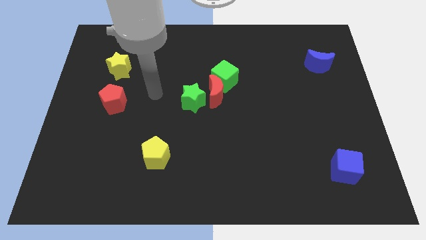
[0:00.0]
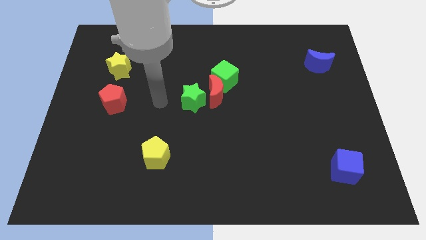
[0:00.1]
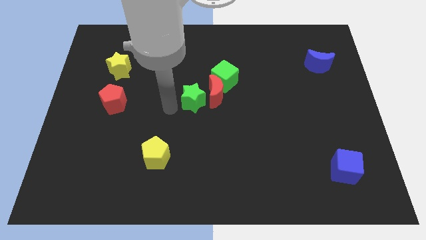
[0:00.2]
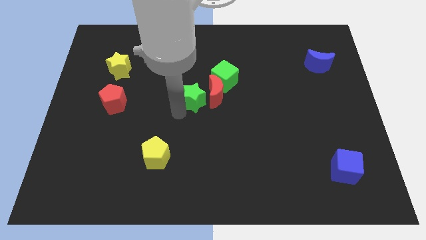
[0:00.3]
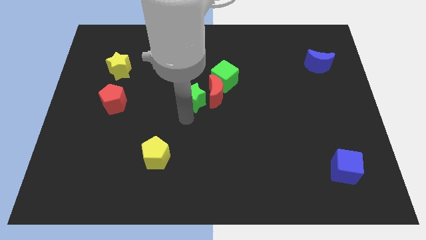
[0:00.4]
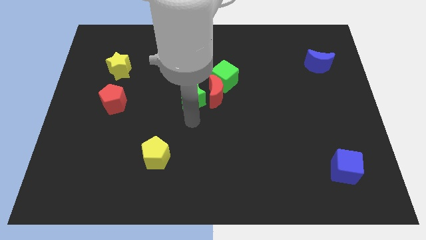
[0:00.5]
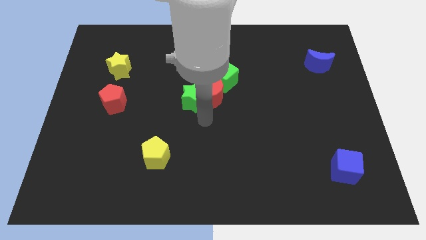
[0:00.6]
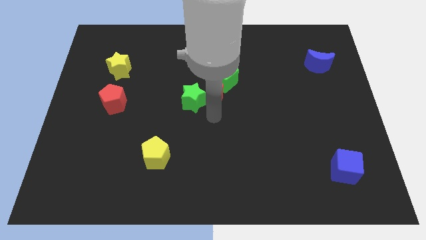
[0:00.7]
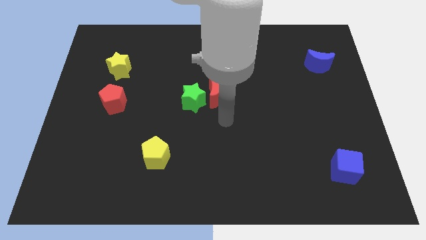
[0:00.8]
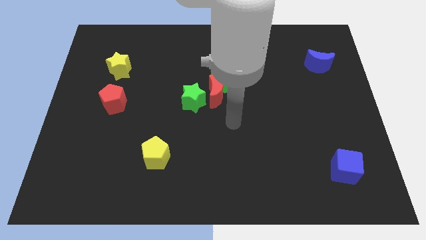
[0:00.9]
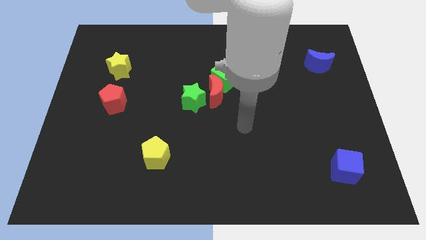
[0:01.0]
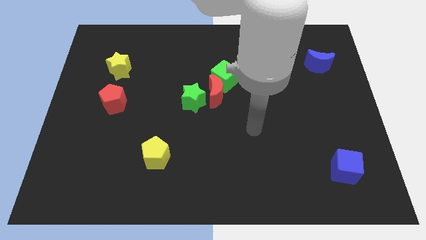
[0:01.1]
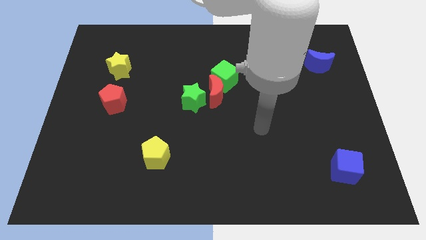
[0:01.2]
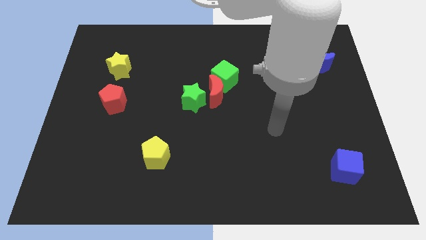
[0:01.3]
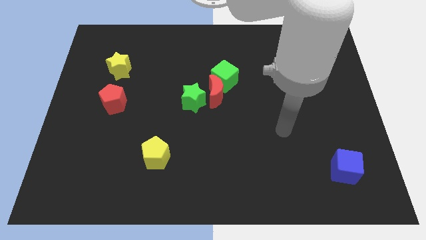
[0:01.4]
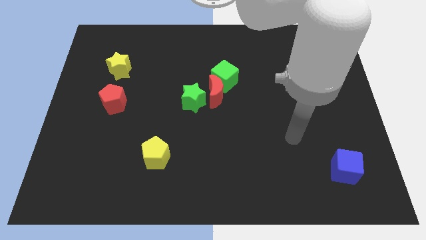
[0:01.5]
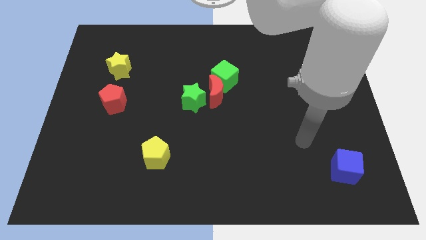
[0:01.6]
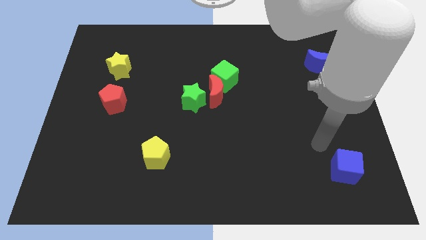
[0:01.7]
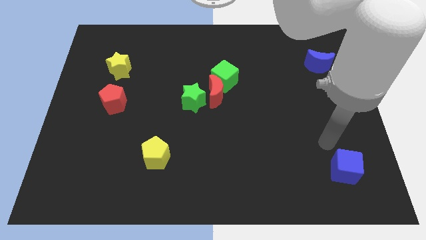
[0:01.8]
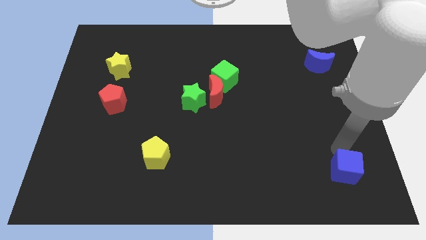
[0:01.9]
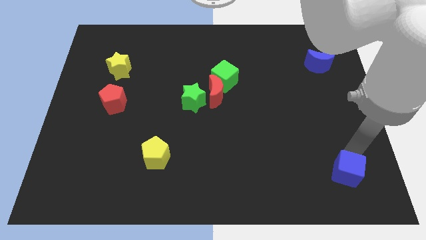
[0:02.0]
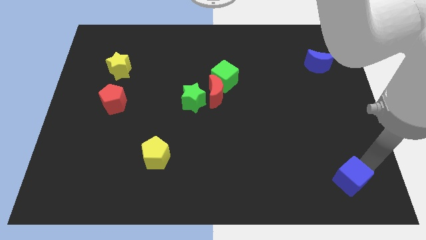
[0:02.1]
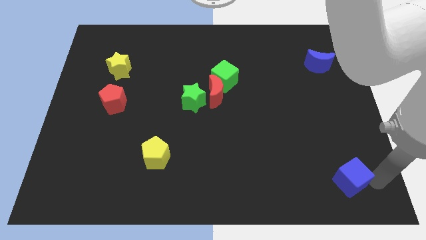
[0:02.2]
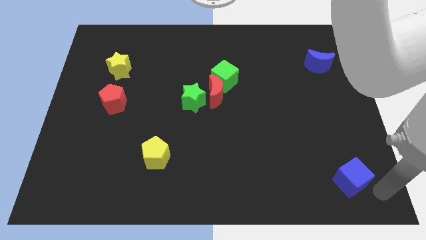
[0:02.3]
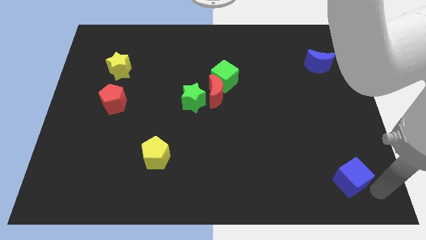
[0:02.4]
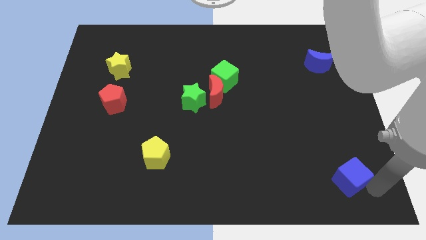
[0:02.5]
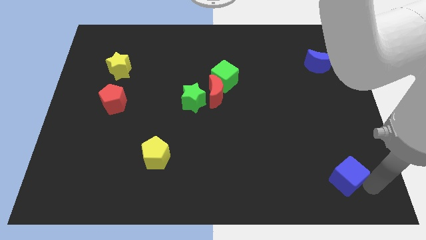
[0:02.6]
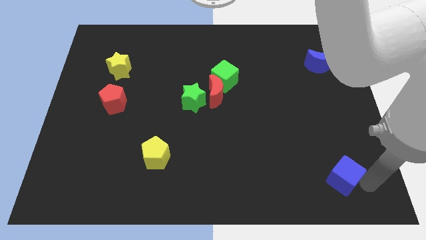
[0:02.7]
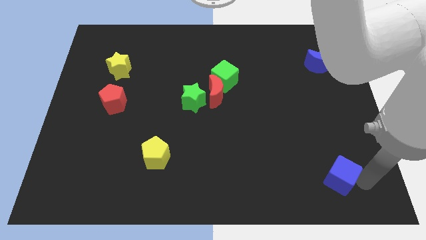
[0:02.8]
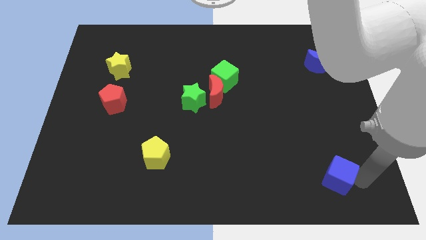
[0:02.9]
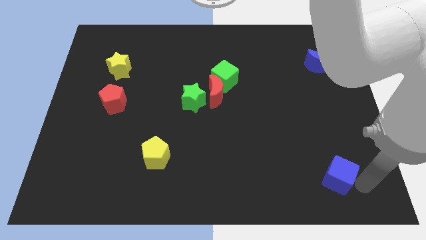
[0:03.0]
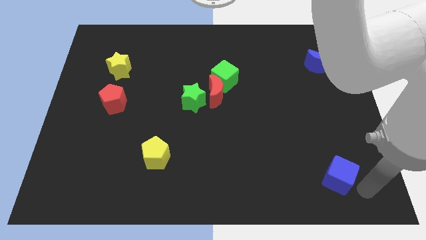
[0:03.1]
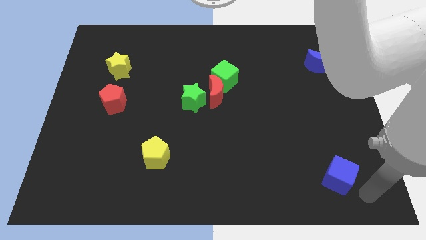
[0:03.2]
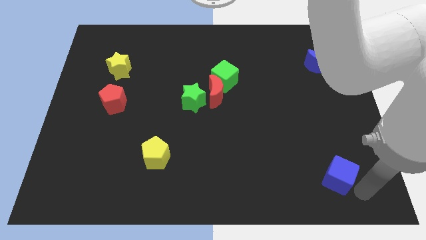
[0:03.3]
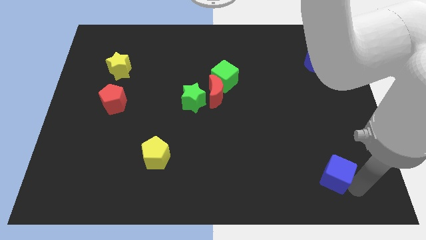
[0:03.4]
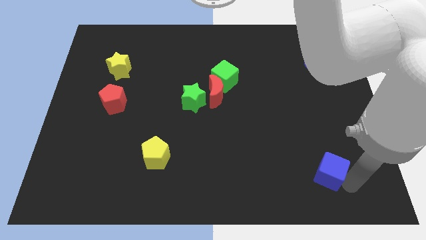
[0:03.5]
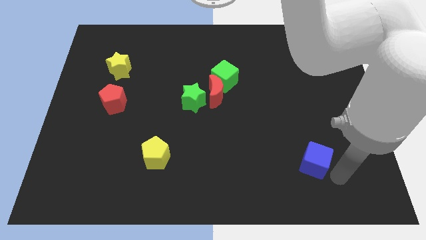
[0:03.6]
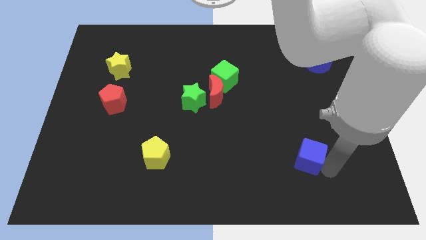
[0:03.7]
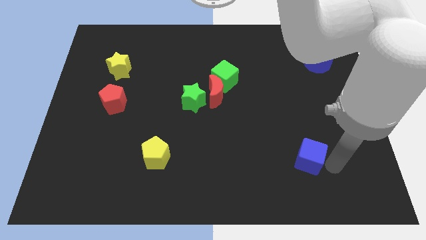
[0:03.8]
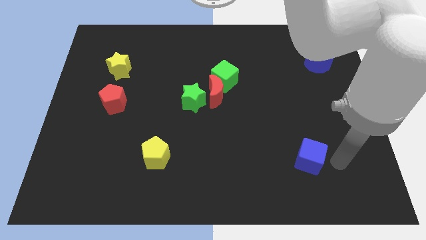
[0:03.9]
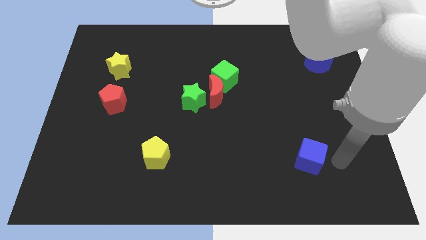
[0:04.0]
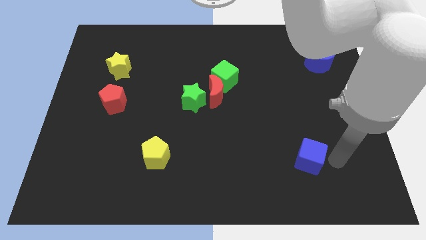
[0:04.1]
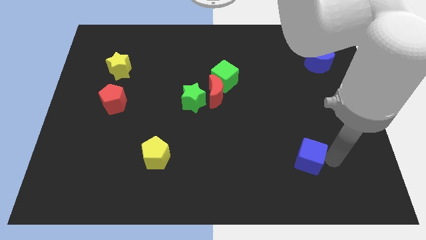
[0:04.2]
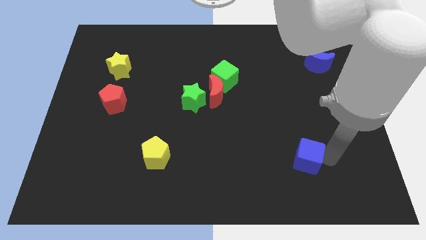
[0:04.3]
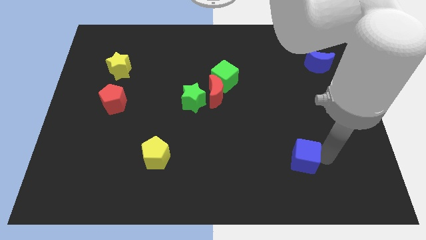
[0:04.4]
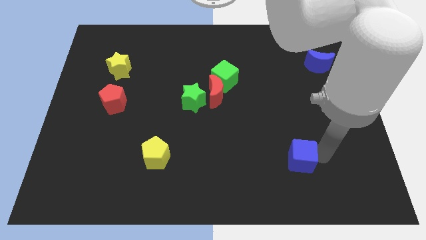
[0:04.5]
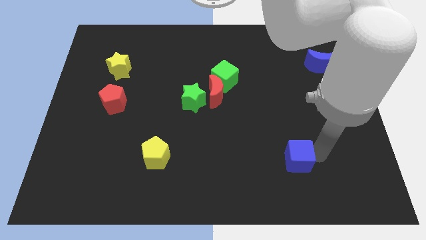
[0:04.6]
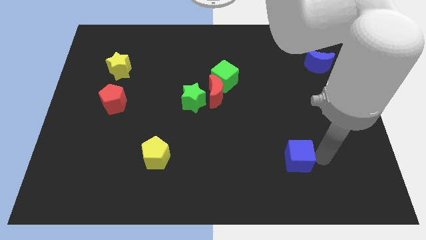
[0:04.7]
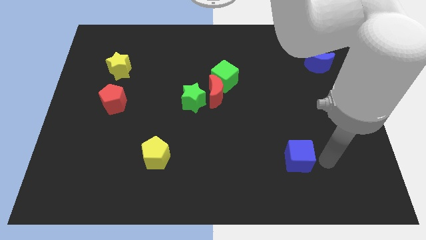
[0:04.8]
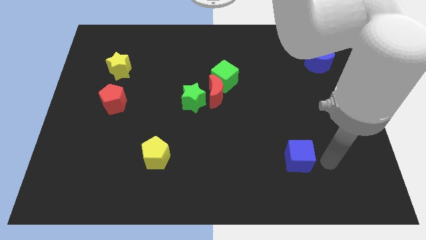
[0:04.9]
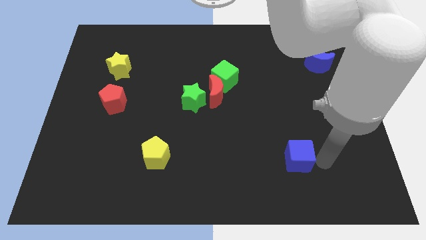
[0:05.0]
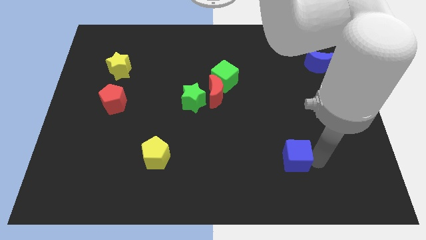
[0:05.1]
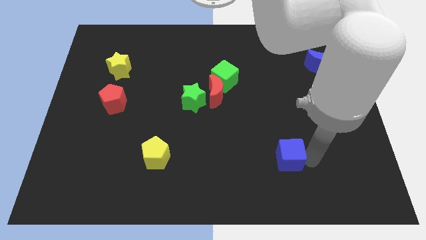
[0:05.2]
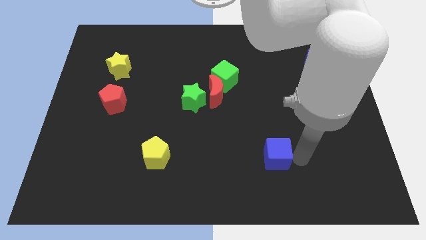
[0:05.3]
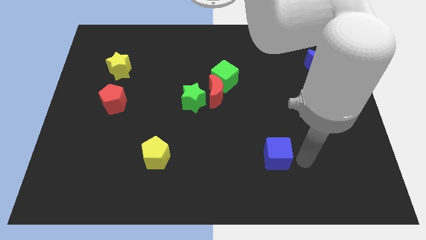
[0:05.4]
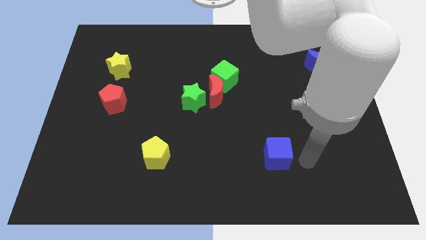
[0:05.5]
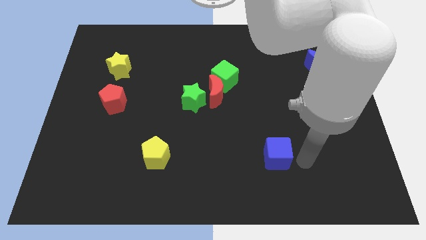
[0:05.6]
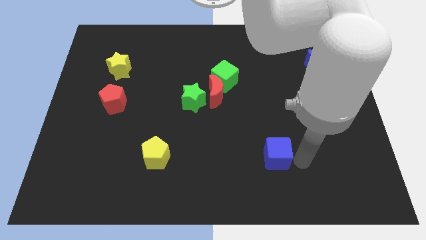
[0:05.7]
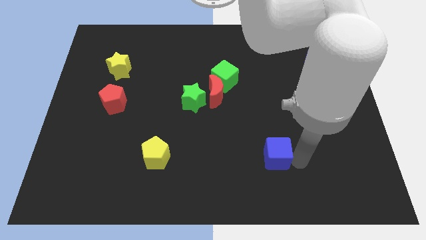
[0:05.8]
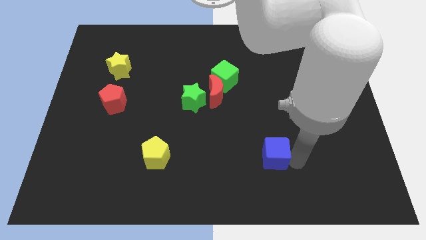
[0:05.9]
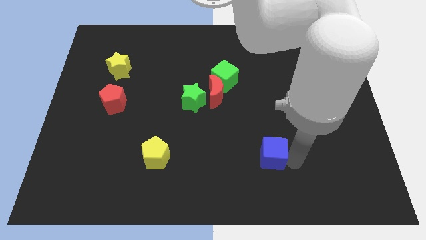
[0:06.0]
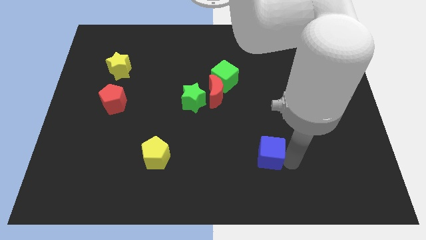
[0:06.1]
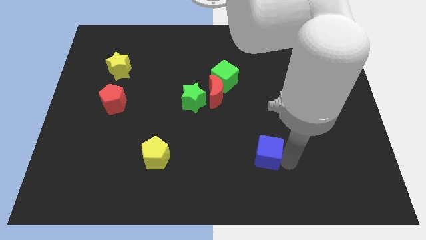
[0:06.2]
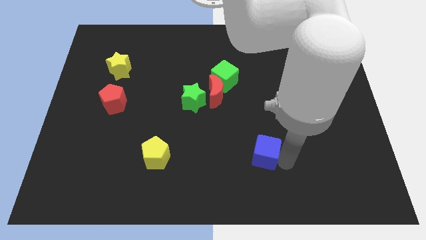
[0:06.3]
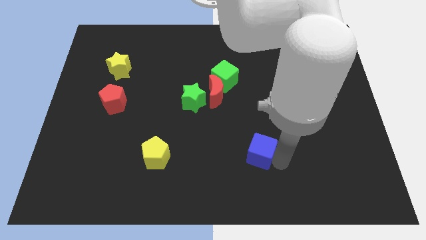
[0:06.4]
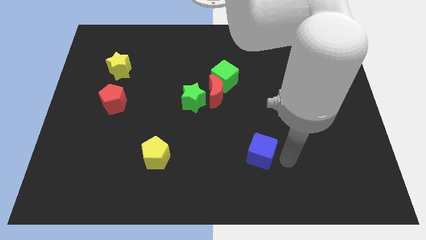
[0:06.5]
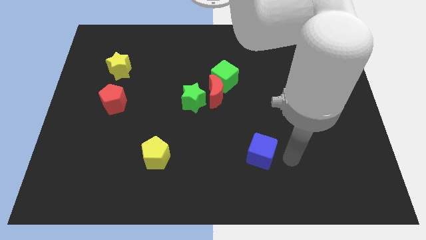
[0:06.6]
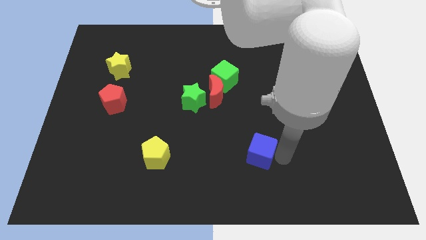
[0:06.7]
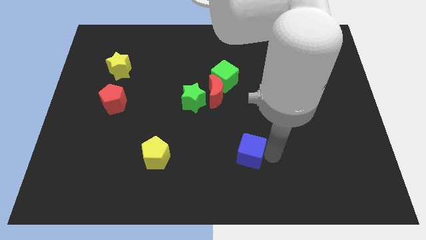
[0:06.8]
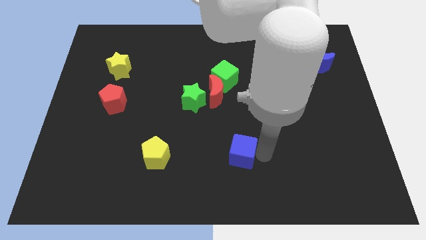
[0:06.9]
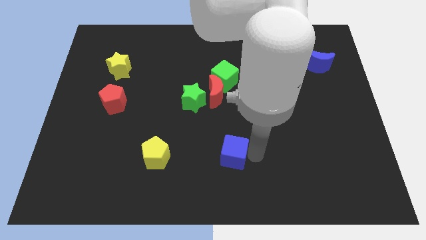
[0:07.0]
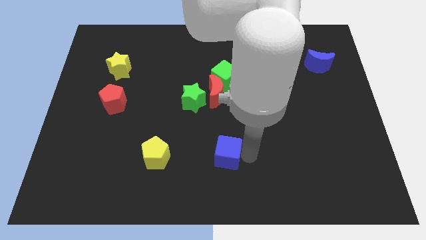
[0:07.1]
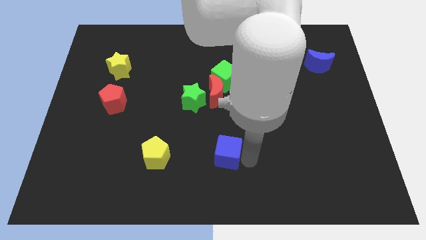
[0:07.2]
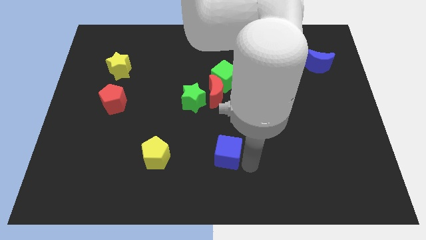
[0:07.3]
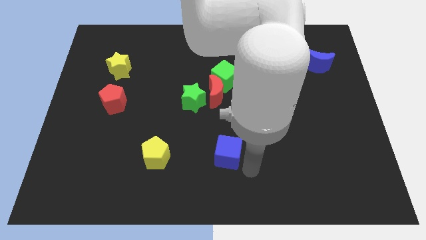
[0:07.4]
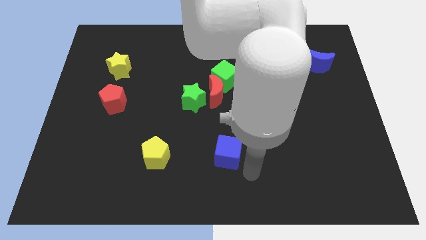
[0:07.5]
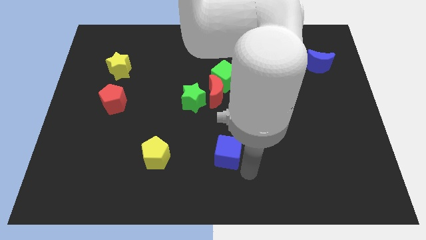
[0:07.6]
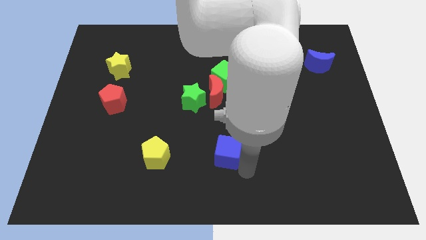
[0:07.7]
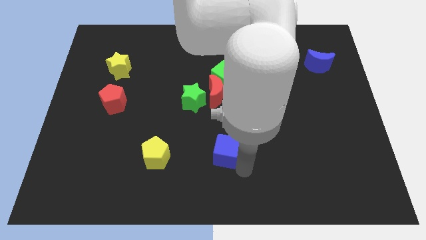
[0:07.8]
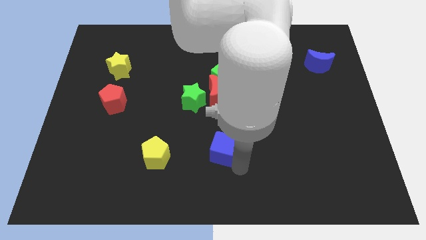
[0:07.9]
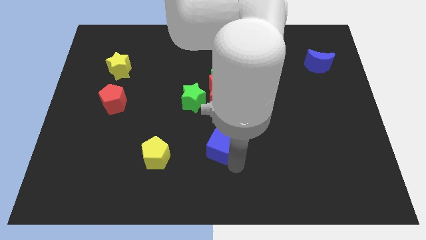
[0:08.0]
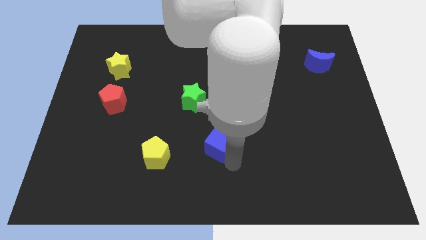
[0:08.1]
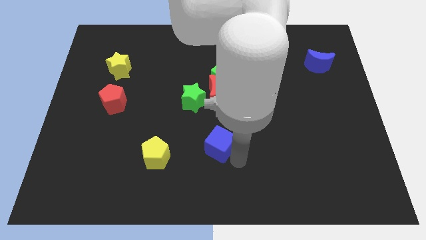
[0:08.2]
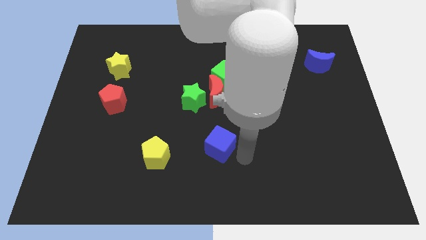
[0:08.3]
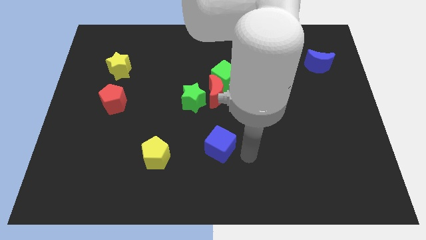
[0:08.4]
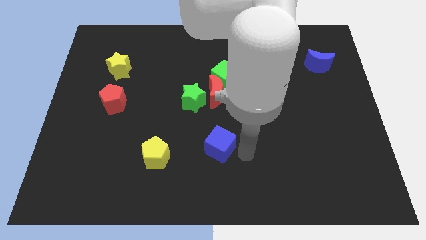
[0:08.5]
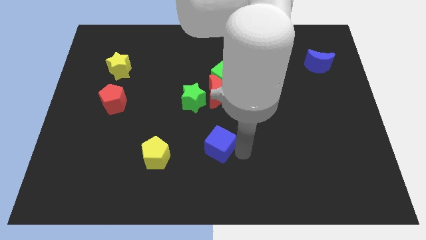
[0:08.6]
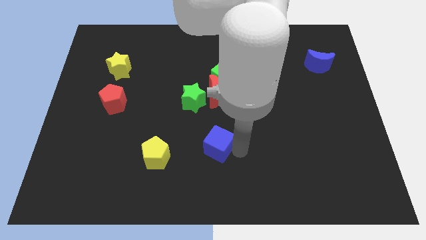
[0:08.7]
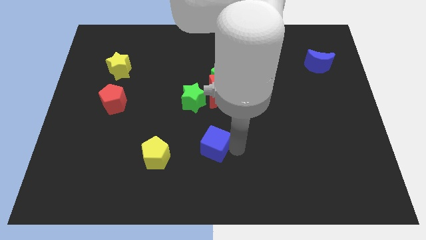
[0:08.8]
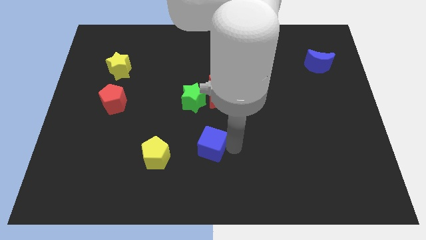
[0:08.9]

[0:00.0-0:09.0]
slide the blue cube to the bottom side of the green star
